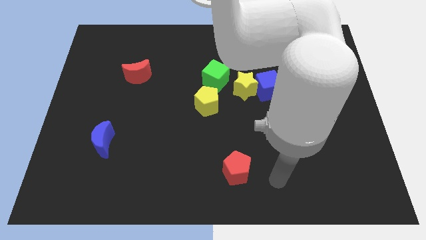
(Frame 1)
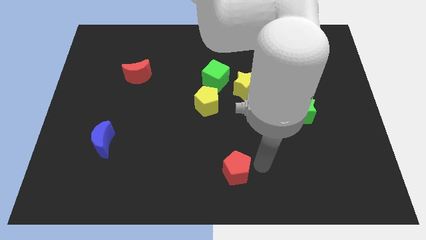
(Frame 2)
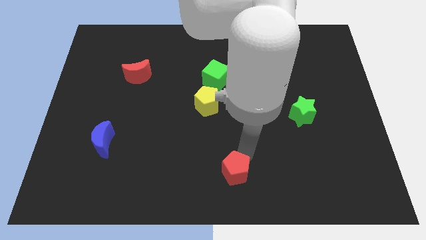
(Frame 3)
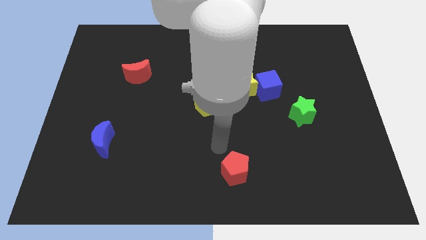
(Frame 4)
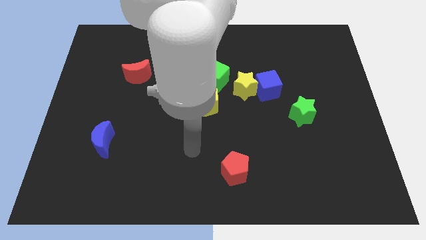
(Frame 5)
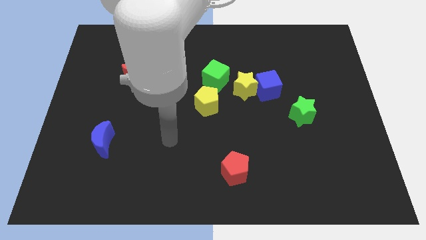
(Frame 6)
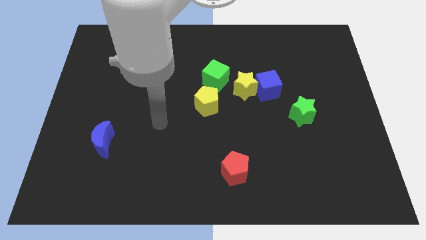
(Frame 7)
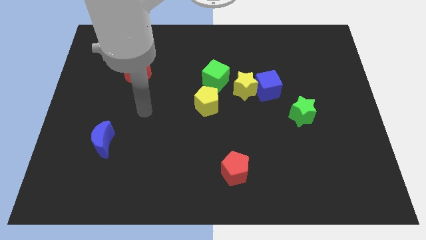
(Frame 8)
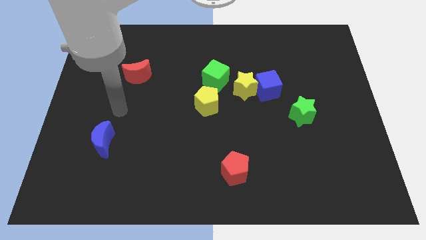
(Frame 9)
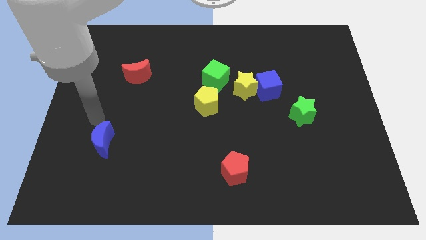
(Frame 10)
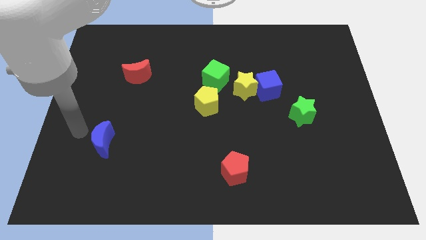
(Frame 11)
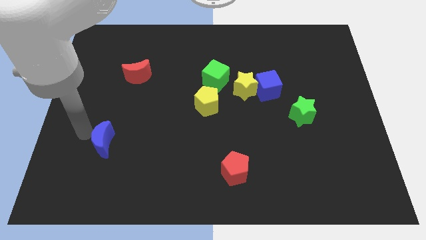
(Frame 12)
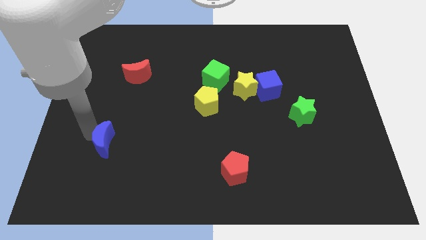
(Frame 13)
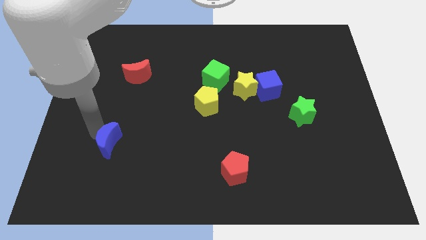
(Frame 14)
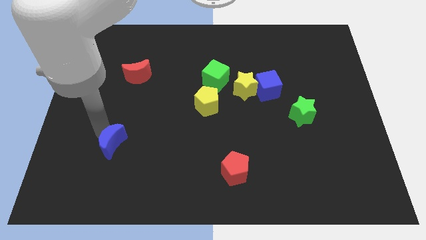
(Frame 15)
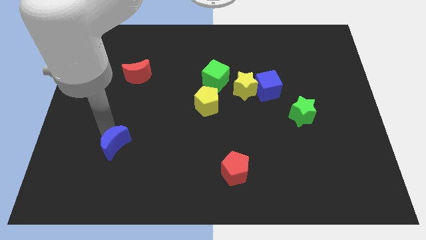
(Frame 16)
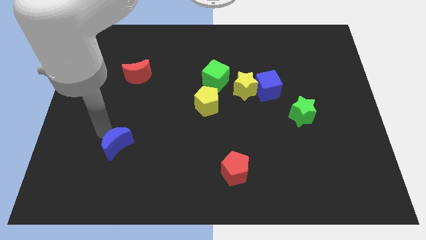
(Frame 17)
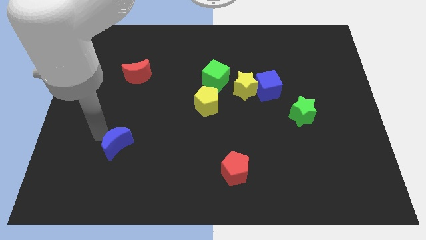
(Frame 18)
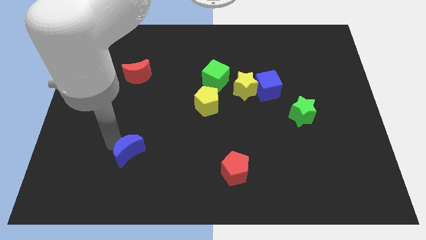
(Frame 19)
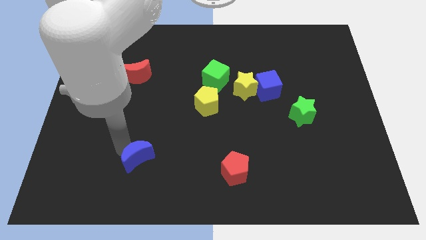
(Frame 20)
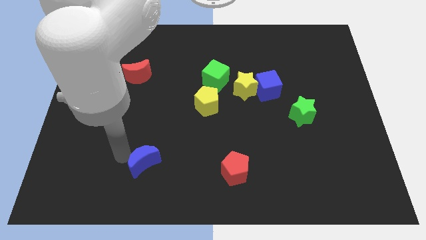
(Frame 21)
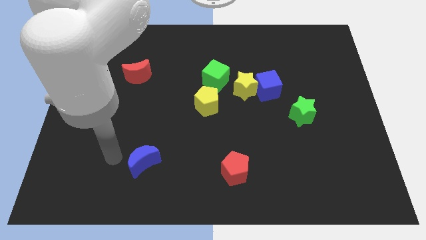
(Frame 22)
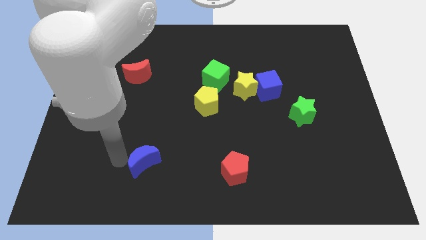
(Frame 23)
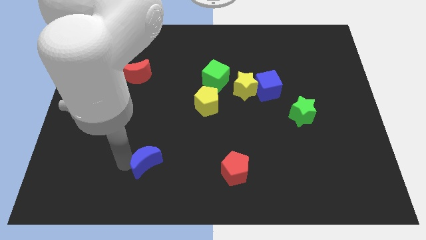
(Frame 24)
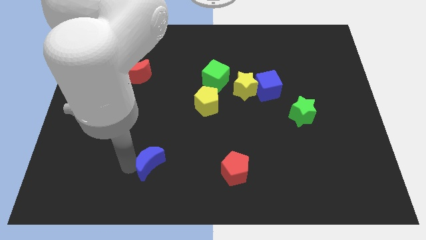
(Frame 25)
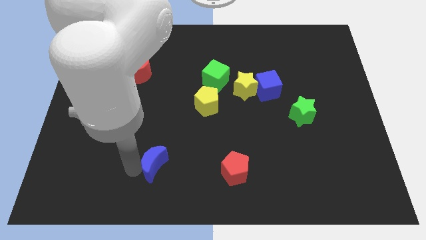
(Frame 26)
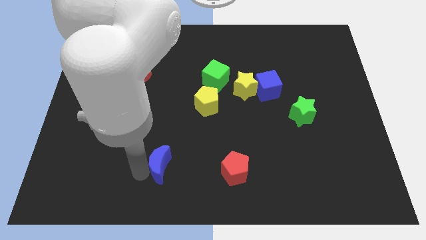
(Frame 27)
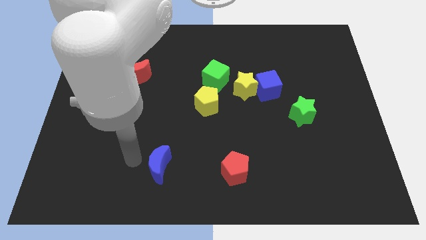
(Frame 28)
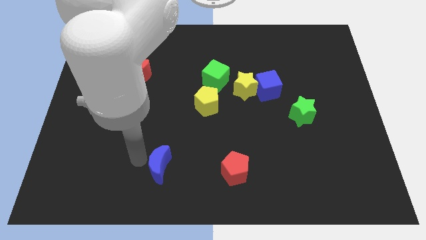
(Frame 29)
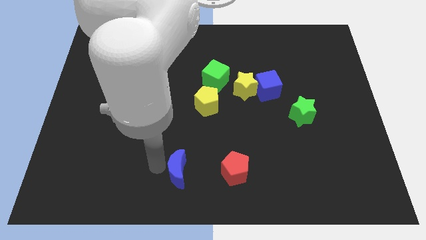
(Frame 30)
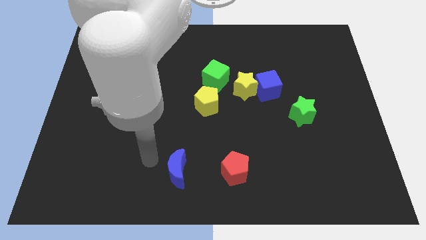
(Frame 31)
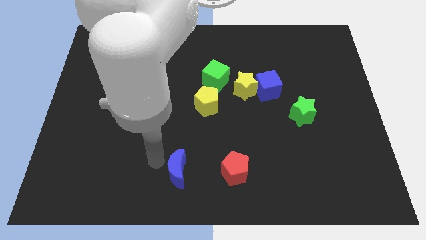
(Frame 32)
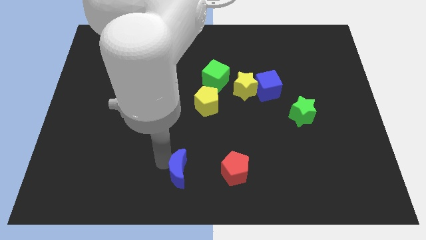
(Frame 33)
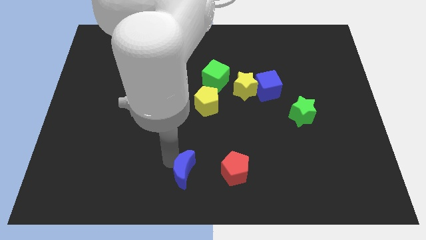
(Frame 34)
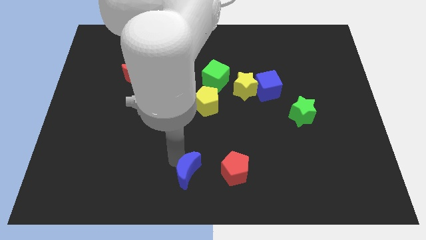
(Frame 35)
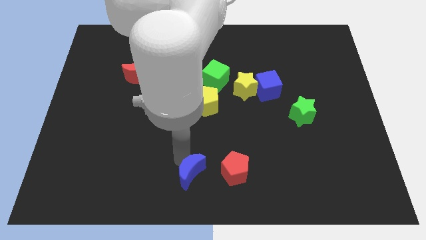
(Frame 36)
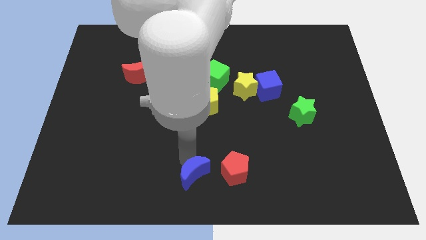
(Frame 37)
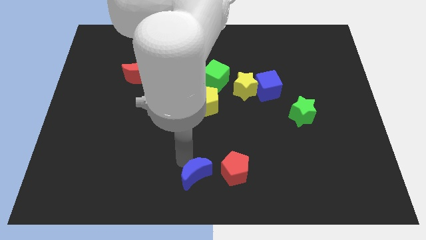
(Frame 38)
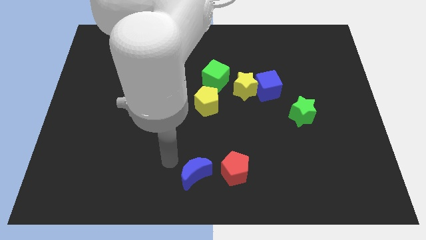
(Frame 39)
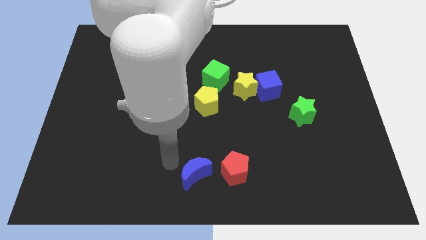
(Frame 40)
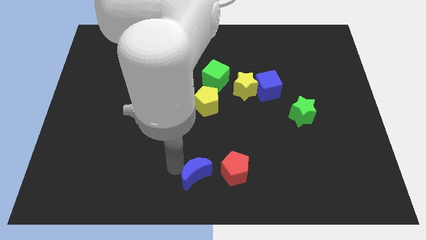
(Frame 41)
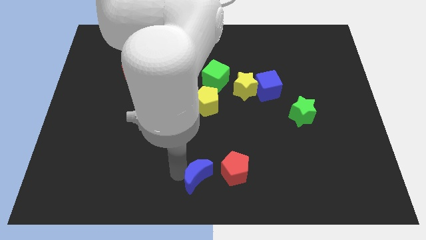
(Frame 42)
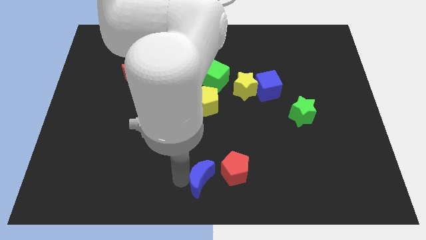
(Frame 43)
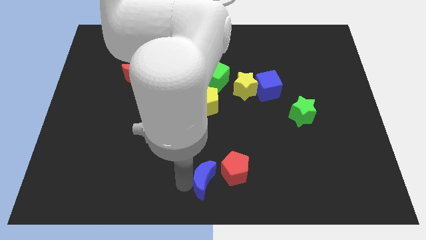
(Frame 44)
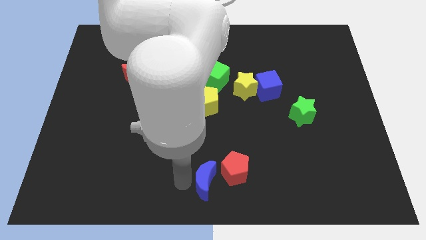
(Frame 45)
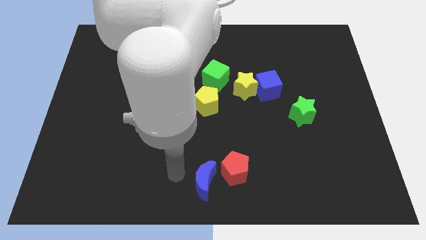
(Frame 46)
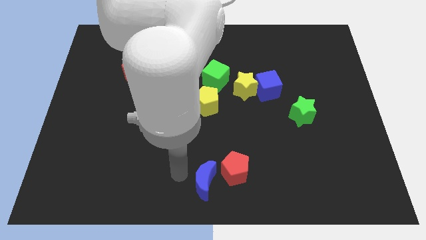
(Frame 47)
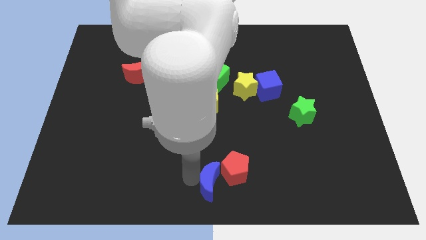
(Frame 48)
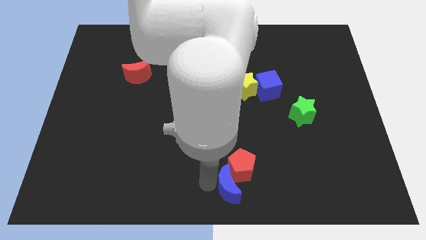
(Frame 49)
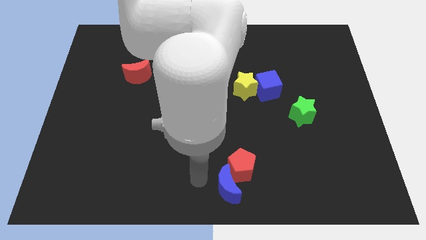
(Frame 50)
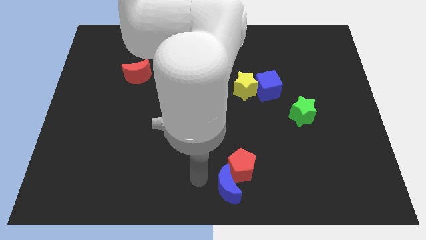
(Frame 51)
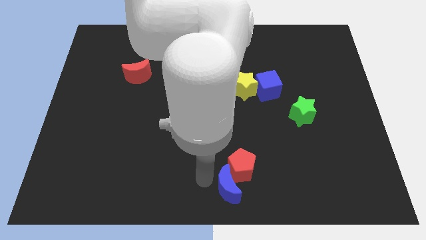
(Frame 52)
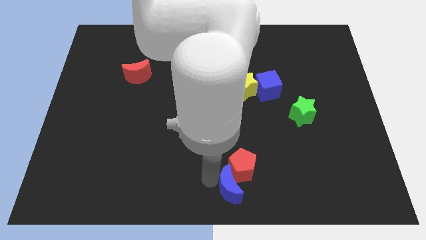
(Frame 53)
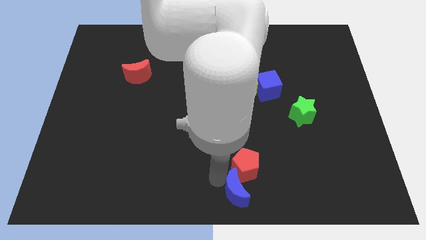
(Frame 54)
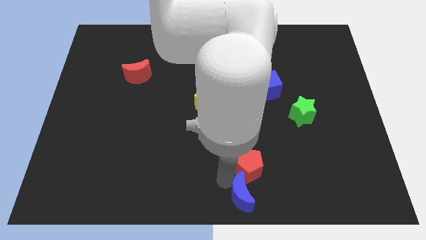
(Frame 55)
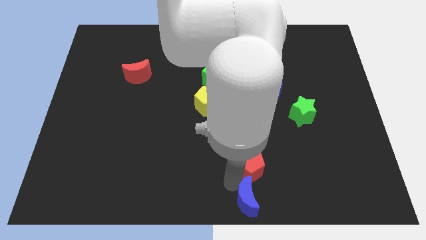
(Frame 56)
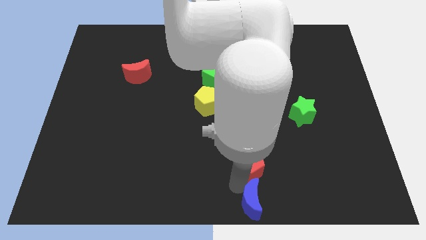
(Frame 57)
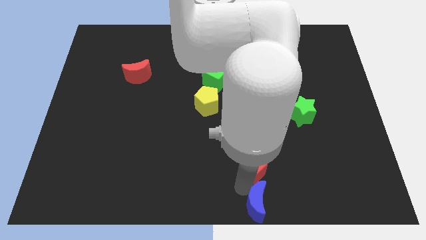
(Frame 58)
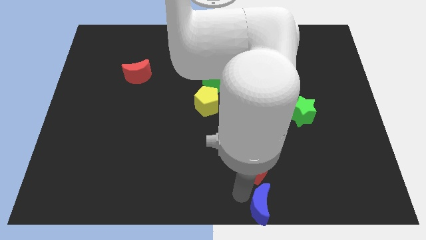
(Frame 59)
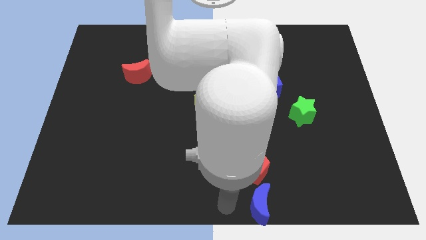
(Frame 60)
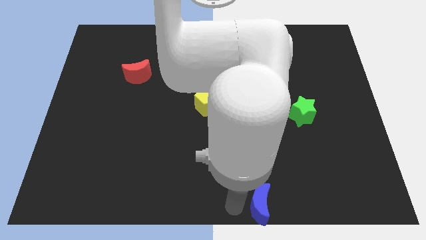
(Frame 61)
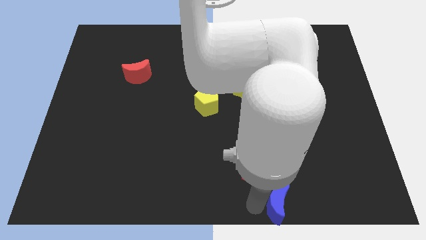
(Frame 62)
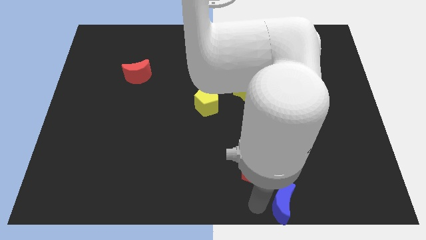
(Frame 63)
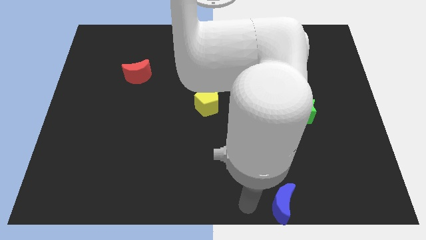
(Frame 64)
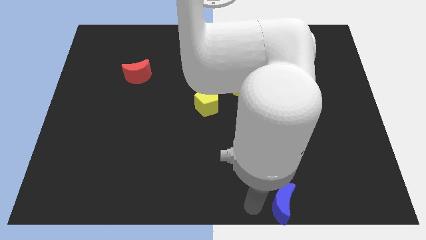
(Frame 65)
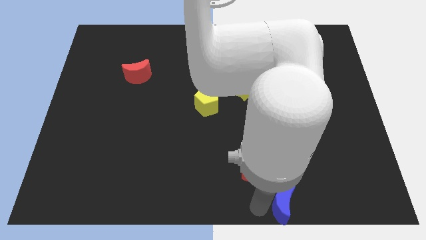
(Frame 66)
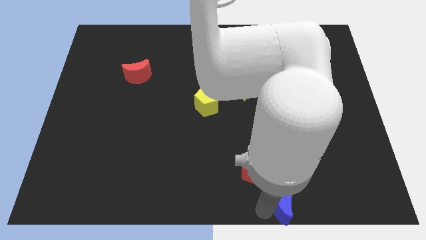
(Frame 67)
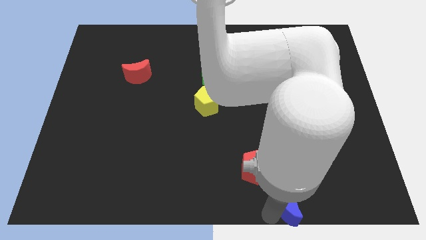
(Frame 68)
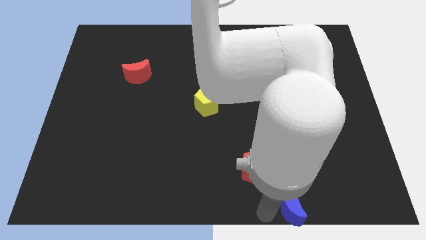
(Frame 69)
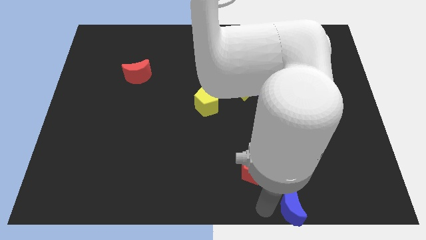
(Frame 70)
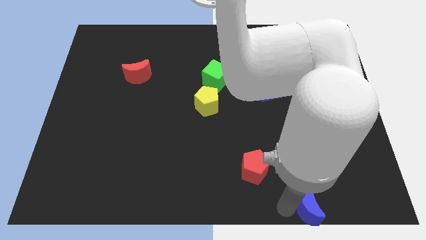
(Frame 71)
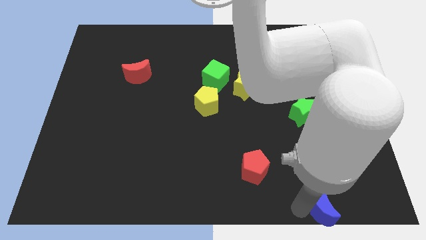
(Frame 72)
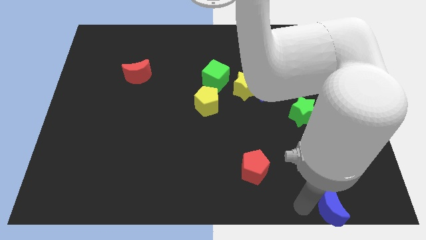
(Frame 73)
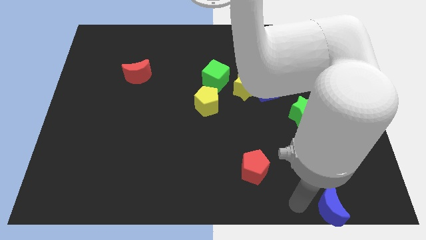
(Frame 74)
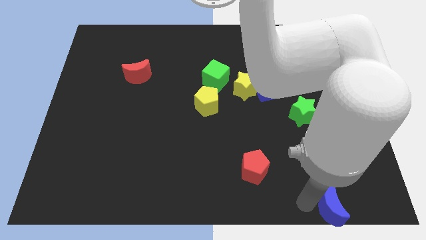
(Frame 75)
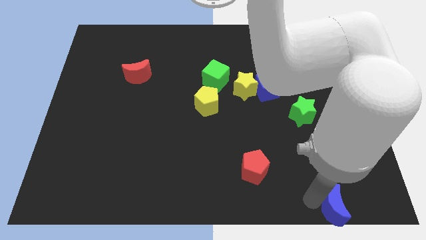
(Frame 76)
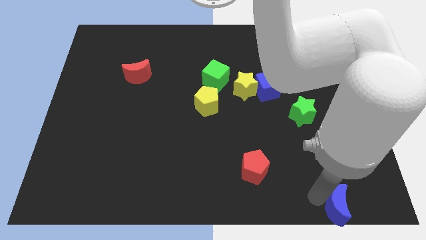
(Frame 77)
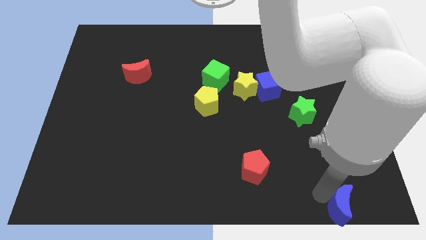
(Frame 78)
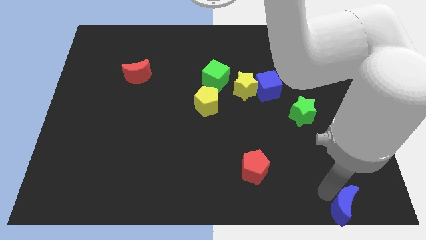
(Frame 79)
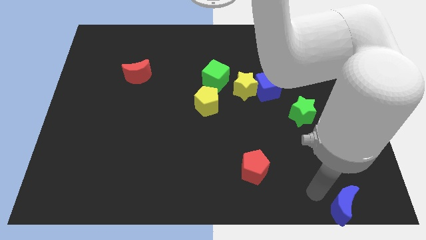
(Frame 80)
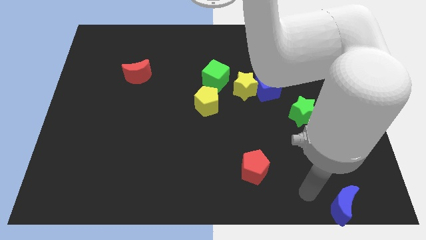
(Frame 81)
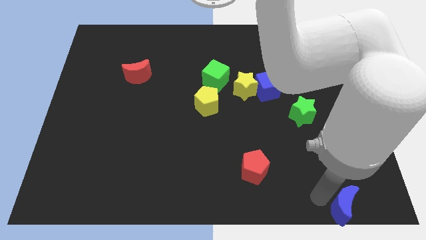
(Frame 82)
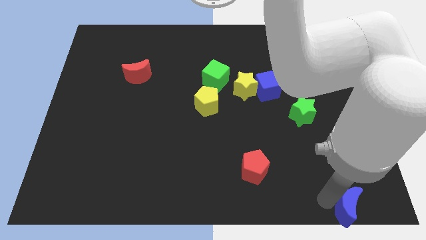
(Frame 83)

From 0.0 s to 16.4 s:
push the blue moon to the bottom right corner

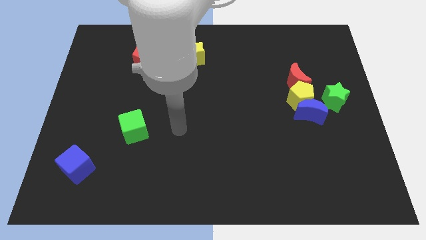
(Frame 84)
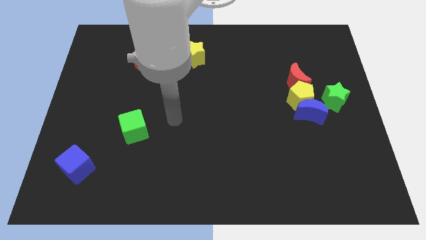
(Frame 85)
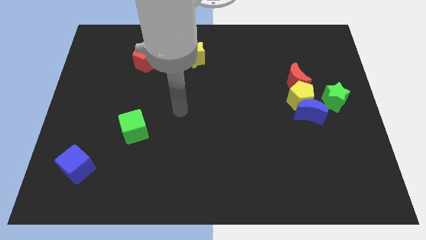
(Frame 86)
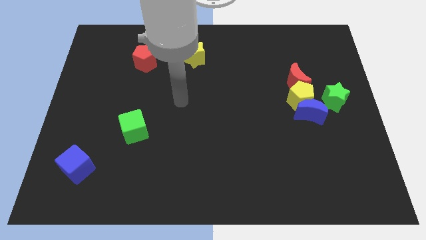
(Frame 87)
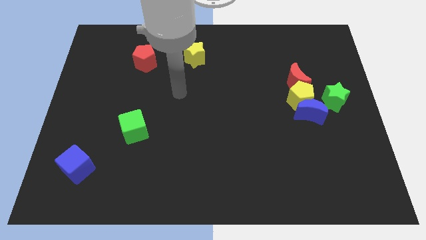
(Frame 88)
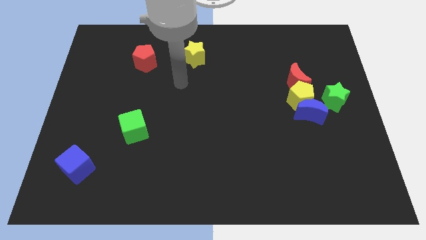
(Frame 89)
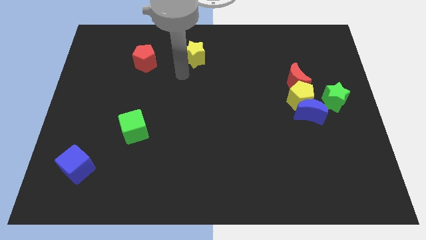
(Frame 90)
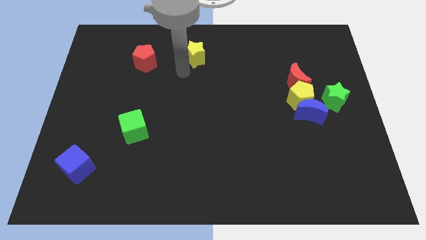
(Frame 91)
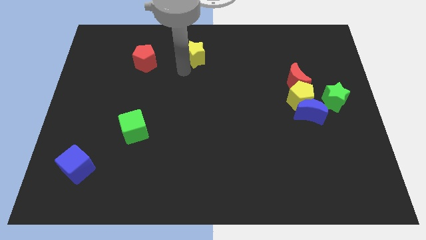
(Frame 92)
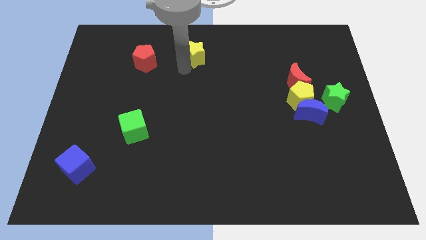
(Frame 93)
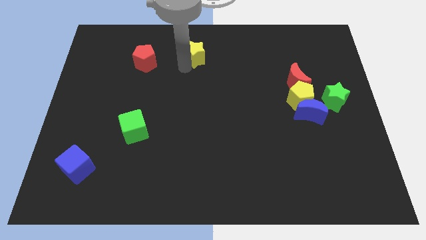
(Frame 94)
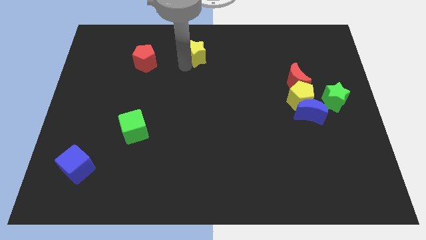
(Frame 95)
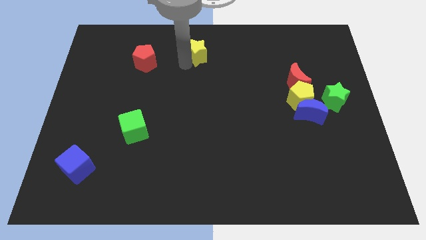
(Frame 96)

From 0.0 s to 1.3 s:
push the yellow star to the top side
